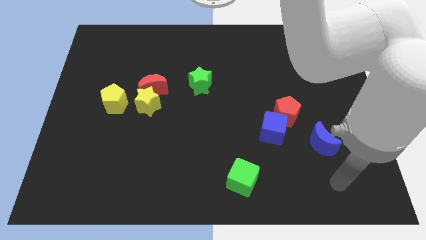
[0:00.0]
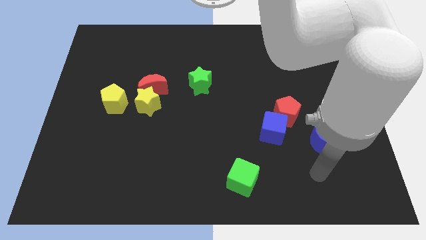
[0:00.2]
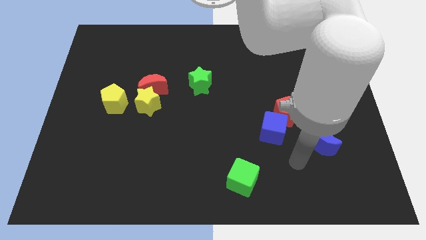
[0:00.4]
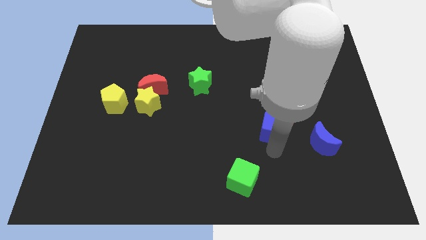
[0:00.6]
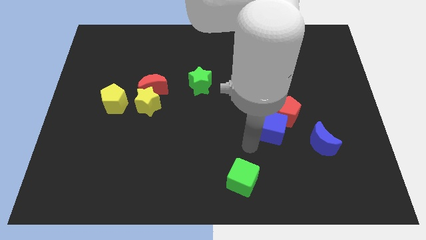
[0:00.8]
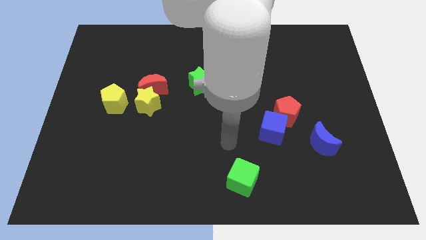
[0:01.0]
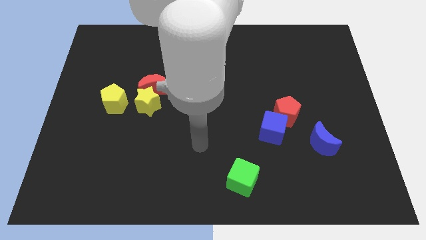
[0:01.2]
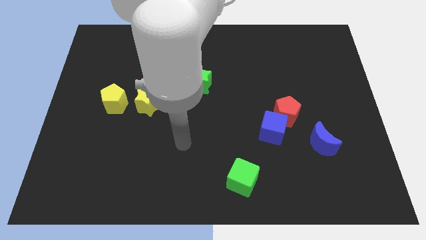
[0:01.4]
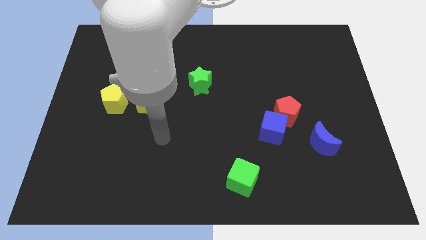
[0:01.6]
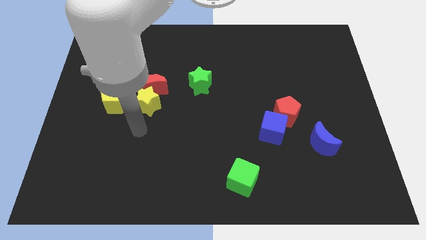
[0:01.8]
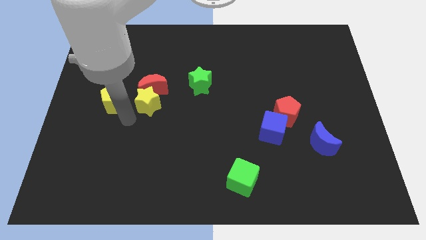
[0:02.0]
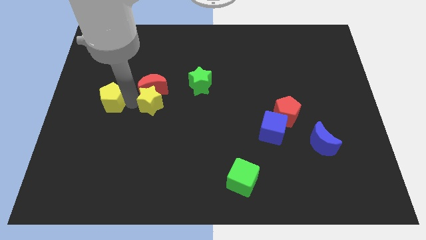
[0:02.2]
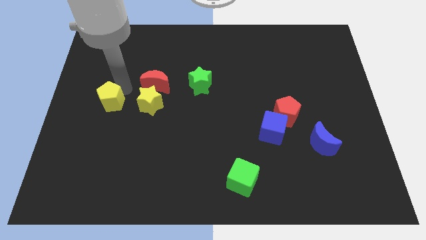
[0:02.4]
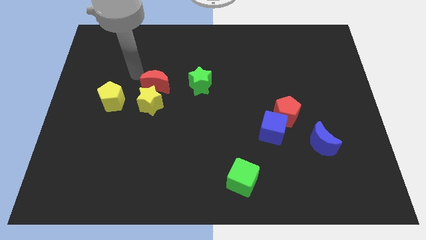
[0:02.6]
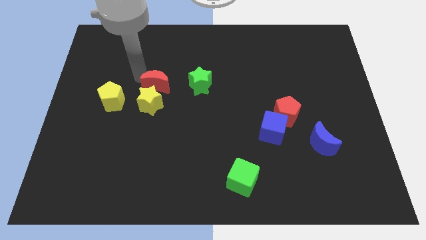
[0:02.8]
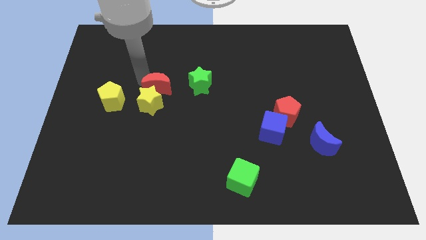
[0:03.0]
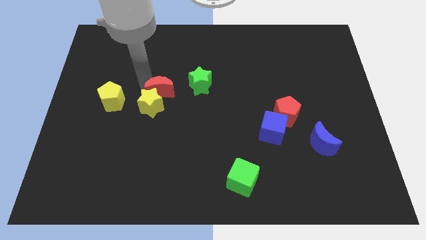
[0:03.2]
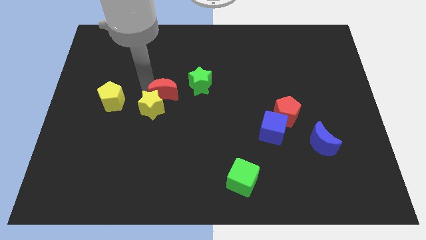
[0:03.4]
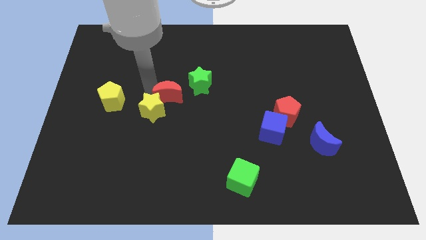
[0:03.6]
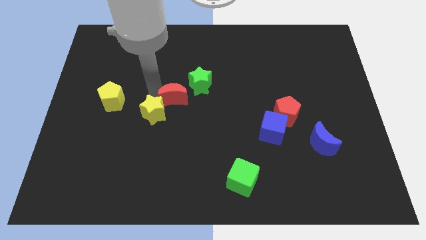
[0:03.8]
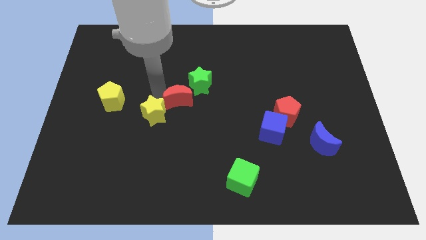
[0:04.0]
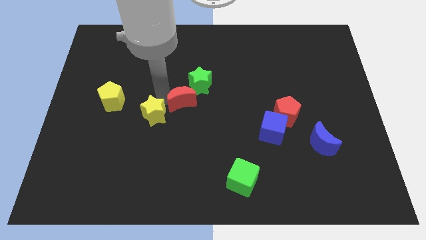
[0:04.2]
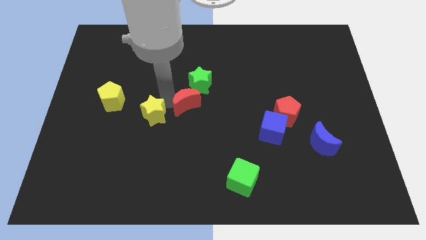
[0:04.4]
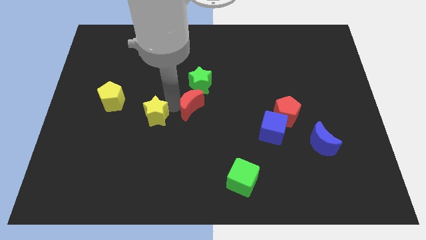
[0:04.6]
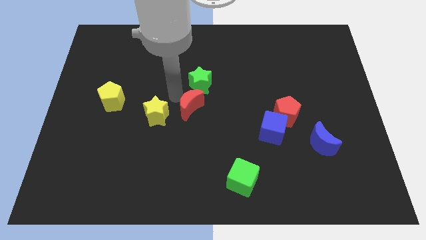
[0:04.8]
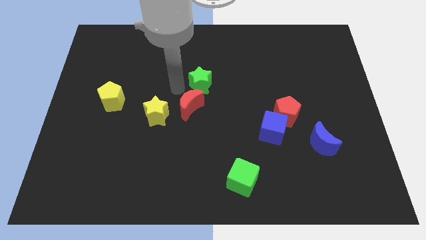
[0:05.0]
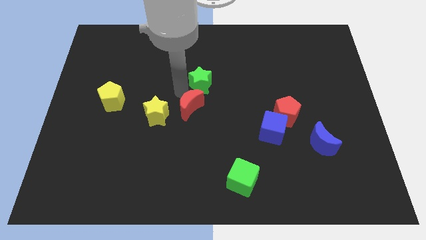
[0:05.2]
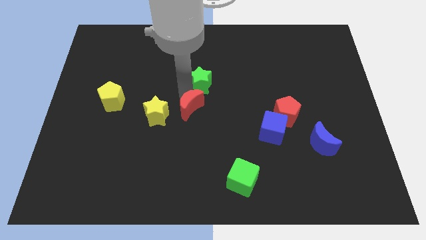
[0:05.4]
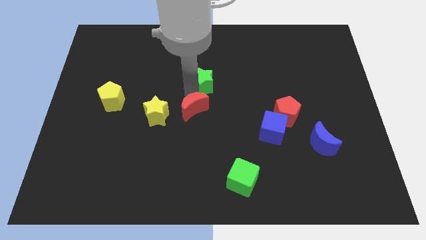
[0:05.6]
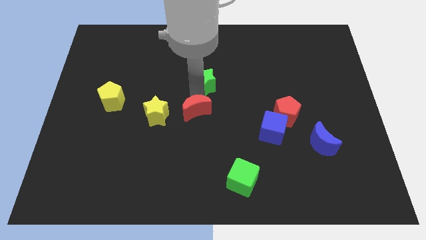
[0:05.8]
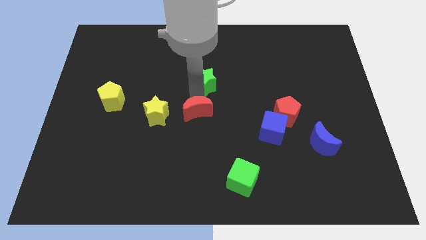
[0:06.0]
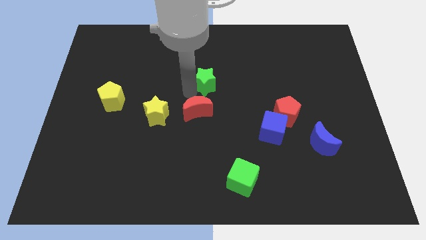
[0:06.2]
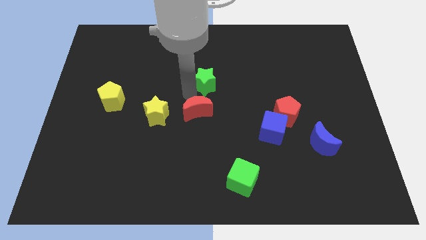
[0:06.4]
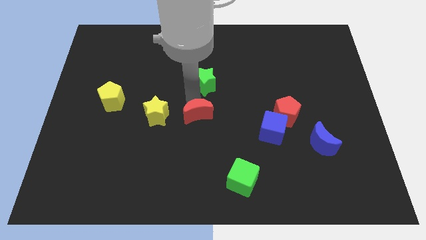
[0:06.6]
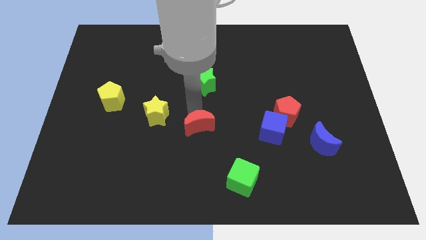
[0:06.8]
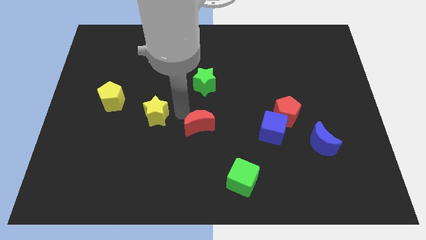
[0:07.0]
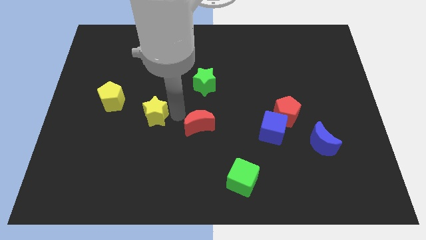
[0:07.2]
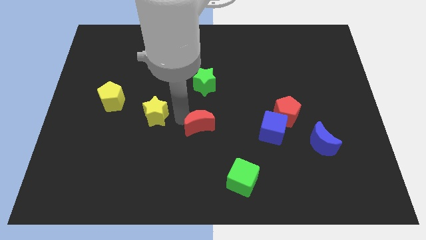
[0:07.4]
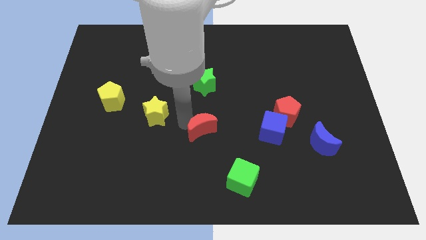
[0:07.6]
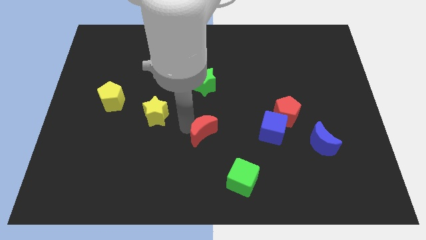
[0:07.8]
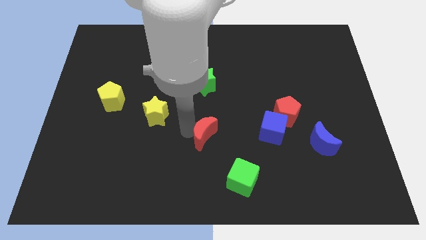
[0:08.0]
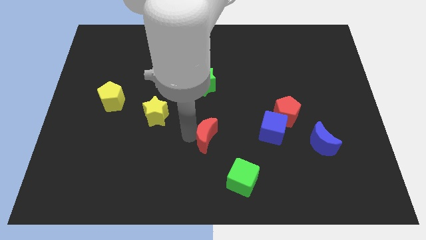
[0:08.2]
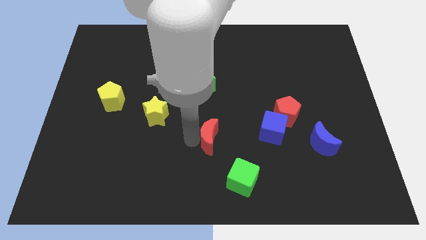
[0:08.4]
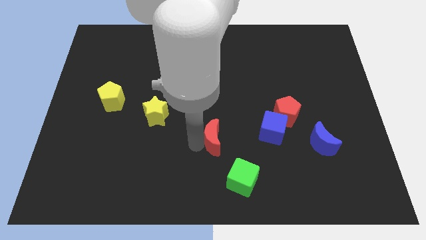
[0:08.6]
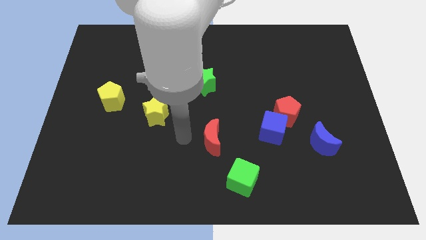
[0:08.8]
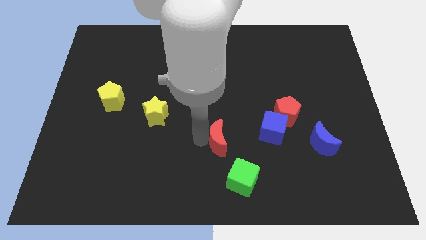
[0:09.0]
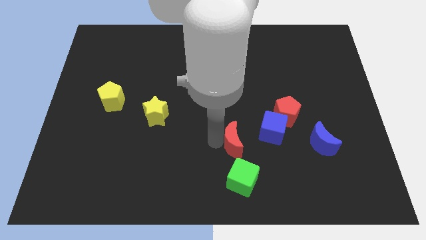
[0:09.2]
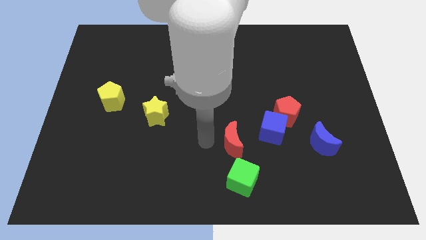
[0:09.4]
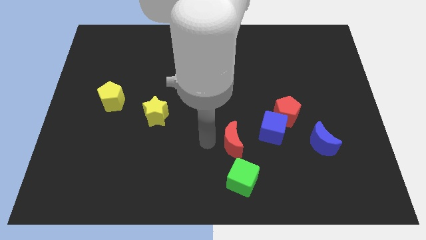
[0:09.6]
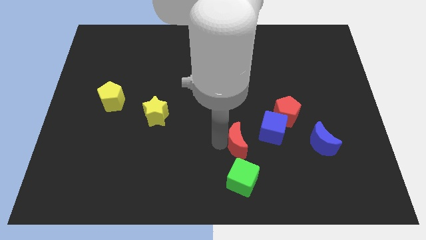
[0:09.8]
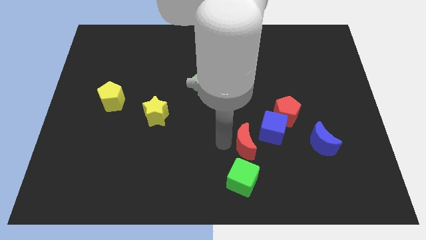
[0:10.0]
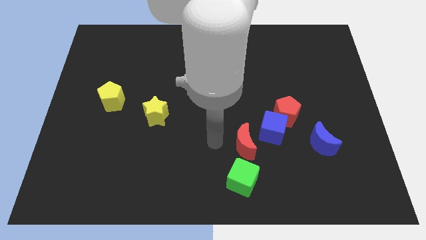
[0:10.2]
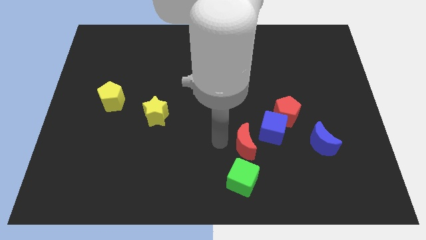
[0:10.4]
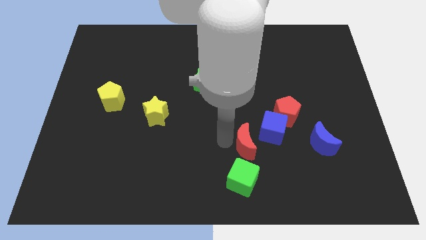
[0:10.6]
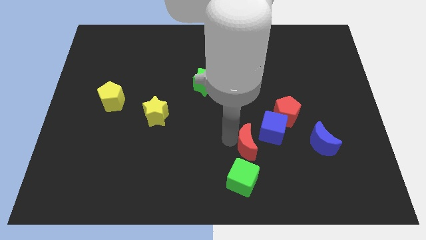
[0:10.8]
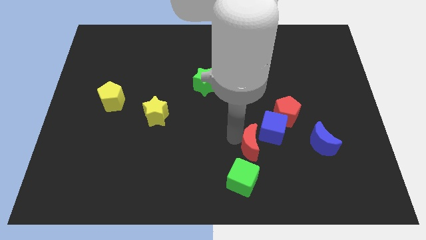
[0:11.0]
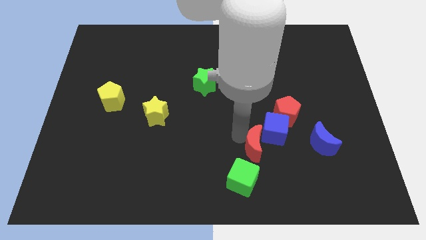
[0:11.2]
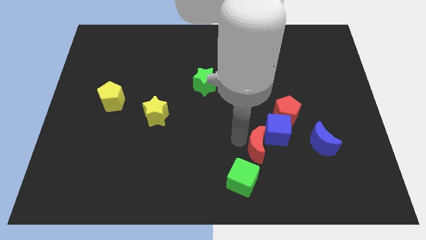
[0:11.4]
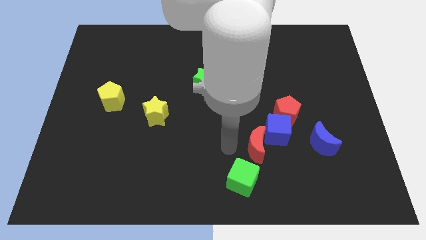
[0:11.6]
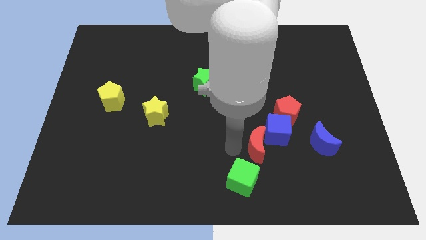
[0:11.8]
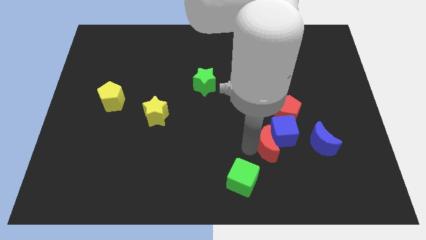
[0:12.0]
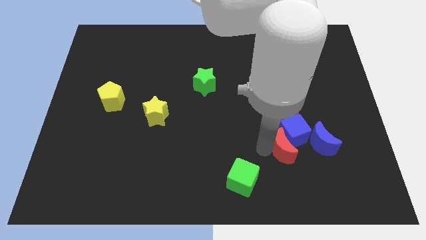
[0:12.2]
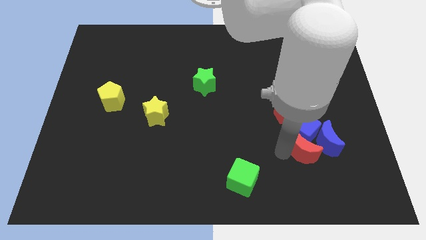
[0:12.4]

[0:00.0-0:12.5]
push the red moon towards the blue moon

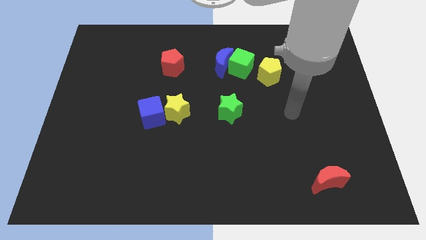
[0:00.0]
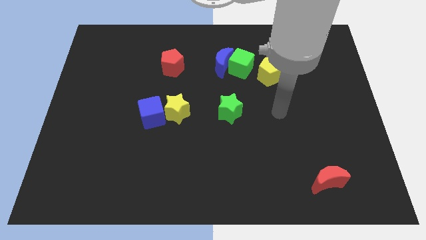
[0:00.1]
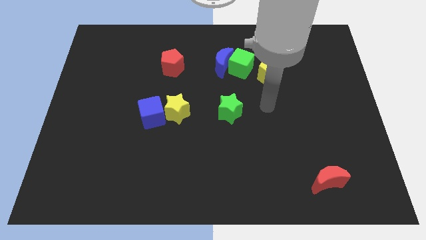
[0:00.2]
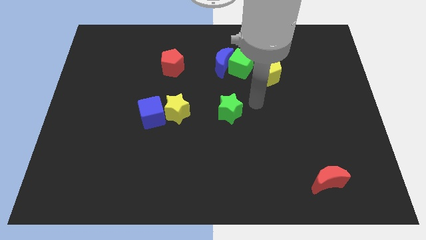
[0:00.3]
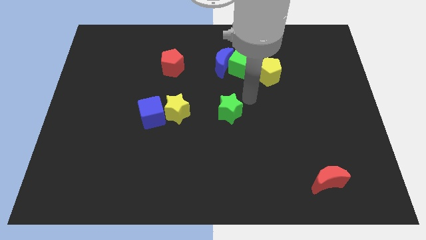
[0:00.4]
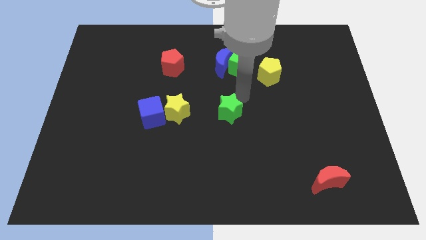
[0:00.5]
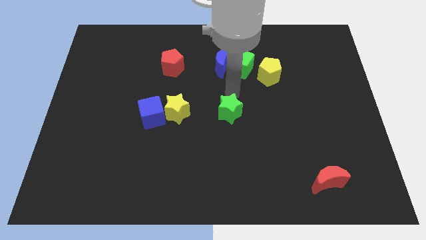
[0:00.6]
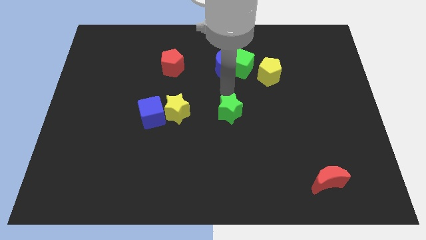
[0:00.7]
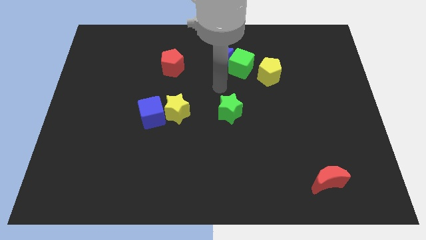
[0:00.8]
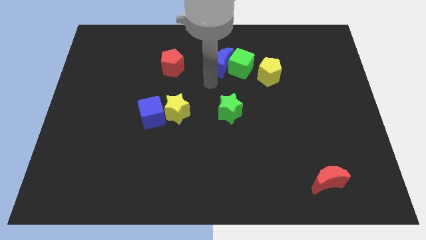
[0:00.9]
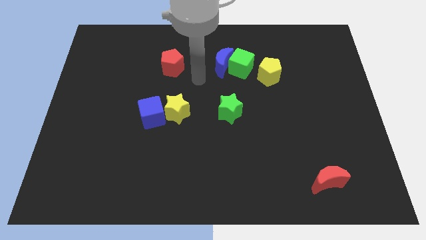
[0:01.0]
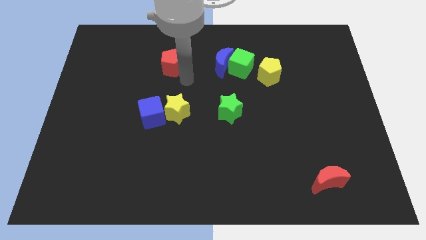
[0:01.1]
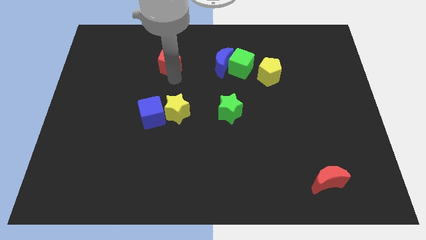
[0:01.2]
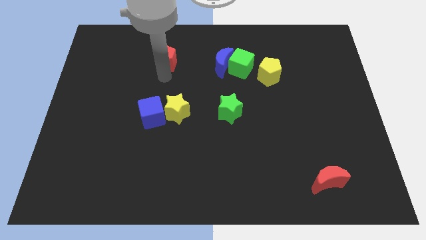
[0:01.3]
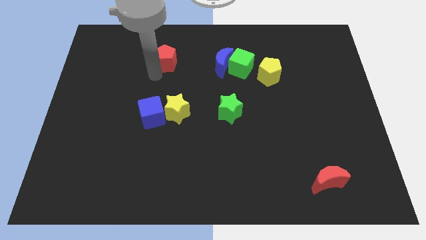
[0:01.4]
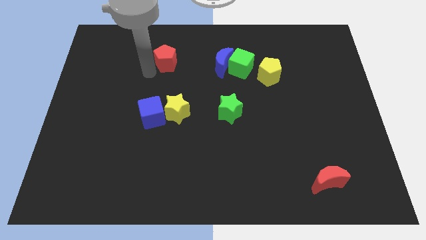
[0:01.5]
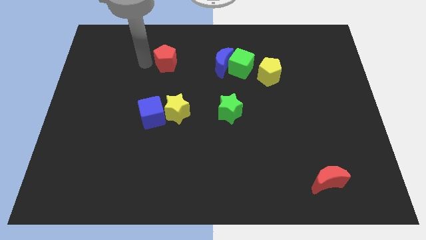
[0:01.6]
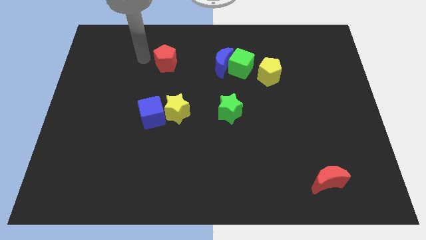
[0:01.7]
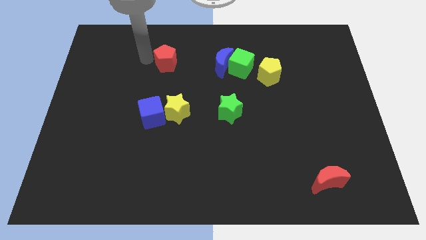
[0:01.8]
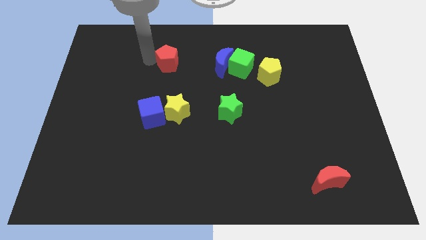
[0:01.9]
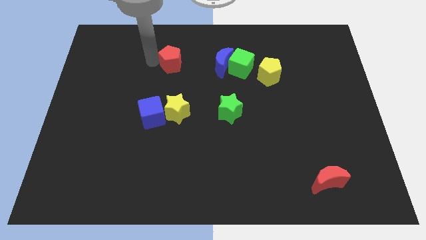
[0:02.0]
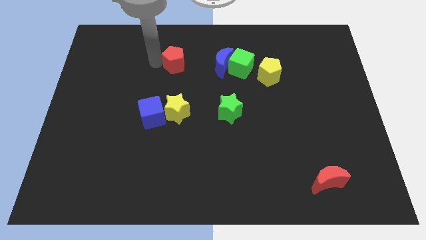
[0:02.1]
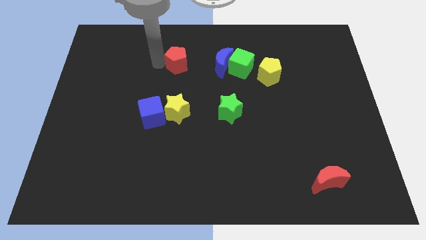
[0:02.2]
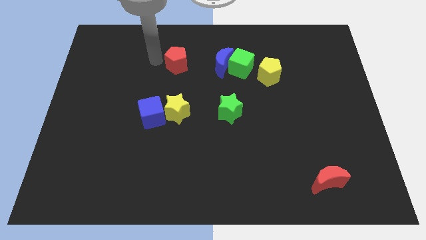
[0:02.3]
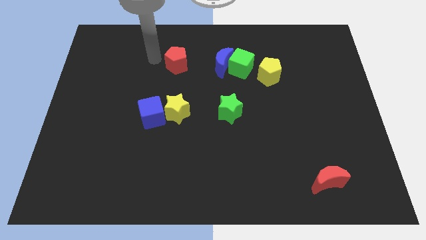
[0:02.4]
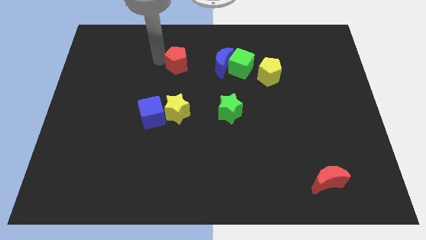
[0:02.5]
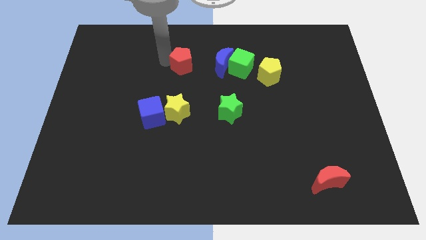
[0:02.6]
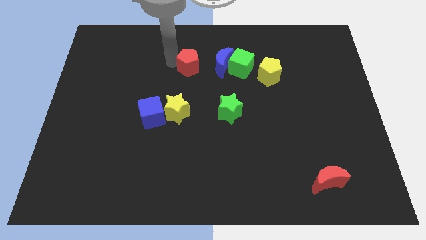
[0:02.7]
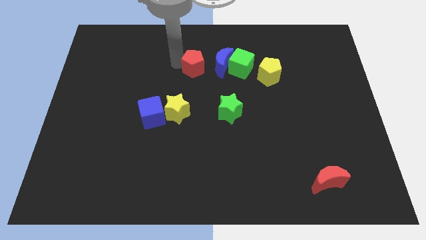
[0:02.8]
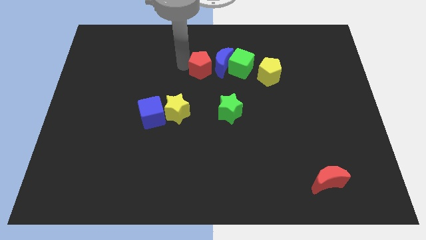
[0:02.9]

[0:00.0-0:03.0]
move the red pentagon next to the blue moon
